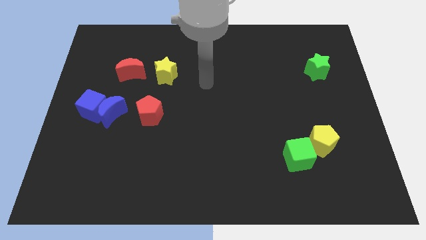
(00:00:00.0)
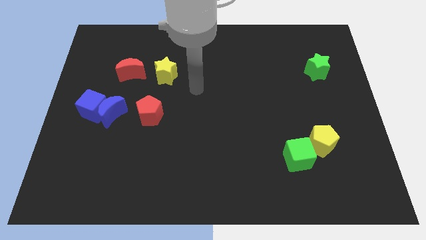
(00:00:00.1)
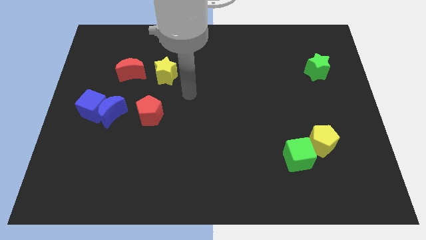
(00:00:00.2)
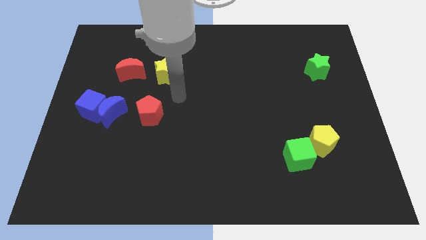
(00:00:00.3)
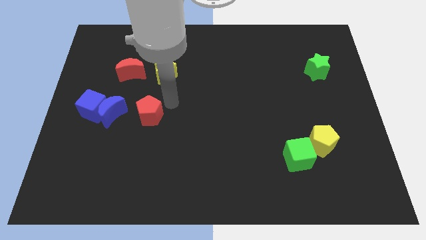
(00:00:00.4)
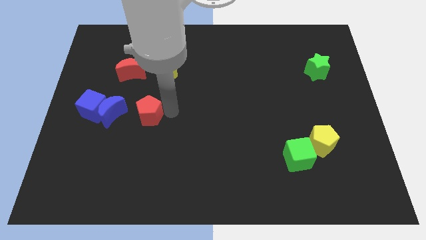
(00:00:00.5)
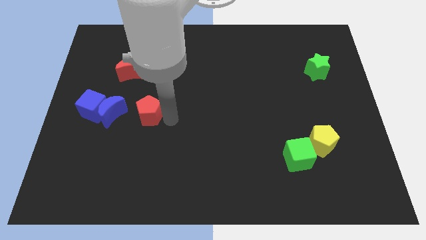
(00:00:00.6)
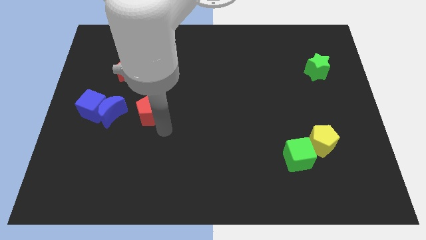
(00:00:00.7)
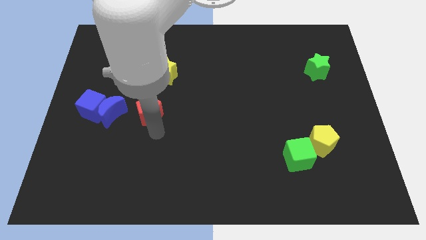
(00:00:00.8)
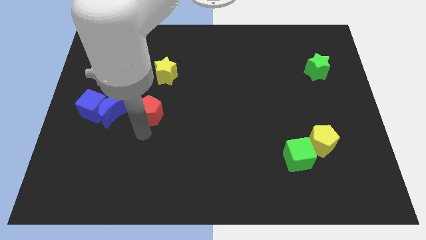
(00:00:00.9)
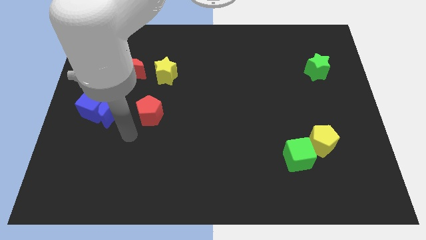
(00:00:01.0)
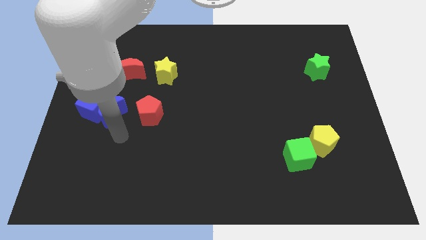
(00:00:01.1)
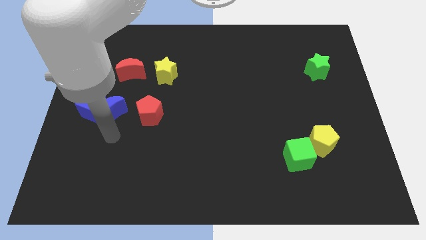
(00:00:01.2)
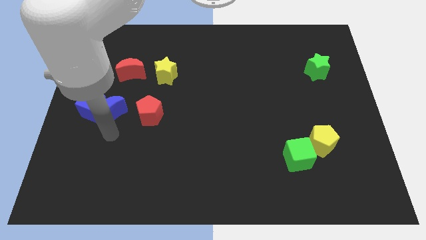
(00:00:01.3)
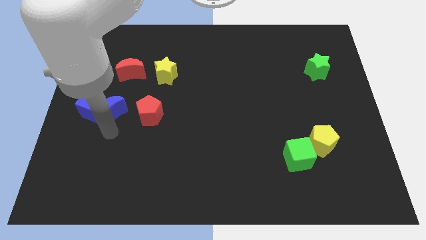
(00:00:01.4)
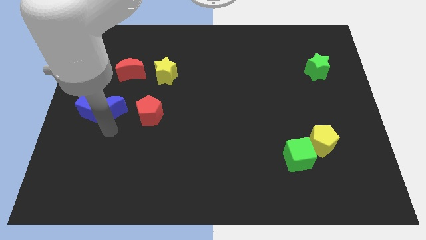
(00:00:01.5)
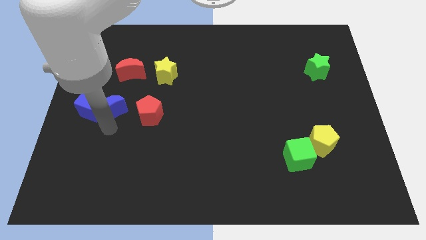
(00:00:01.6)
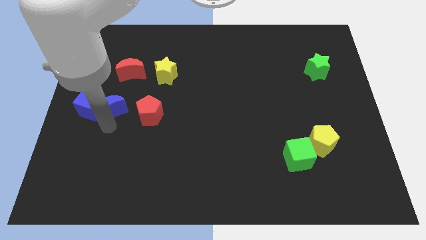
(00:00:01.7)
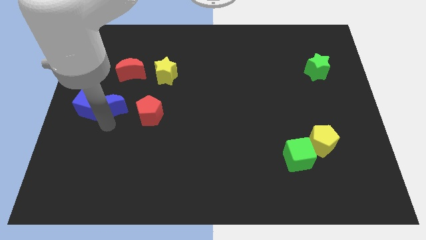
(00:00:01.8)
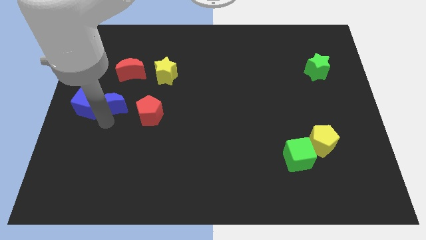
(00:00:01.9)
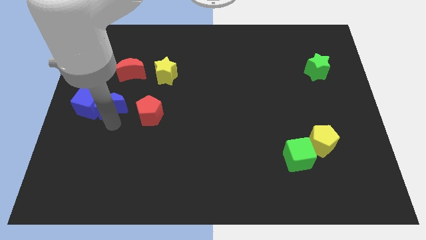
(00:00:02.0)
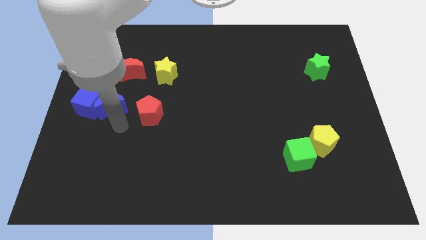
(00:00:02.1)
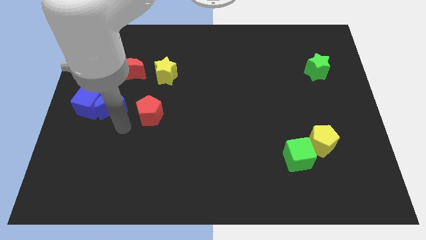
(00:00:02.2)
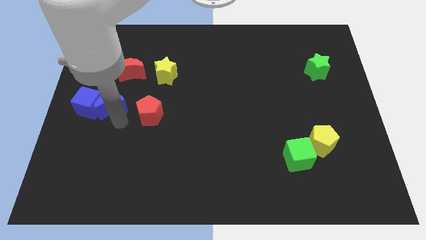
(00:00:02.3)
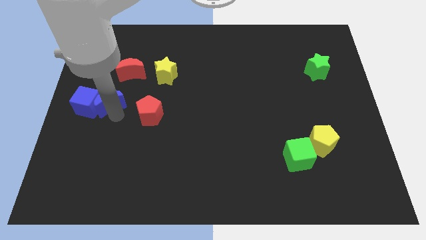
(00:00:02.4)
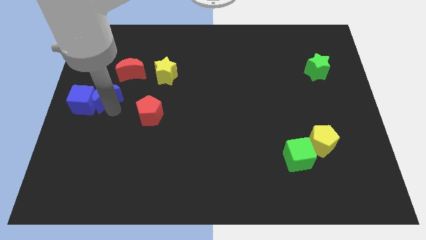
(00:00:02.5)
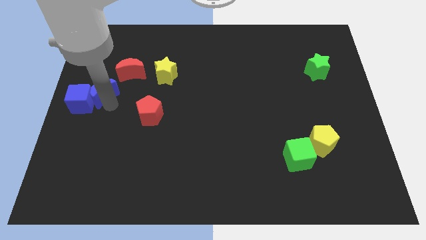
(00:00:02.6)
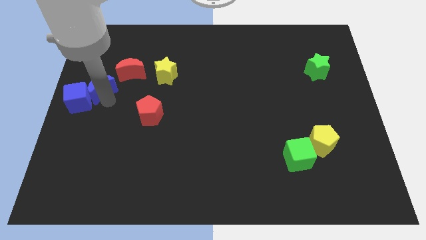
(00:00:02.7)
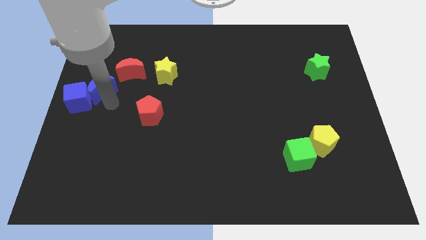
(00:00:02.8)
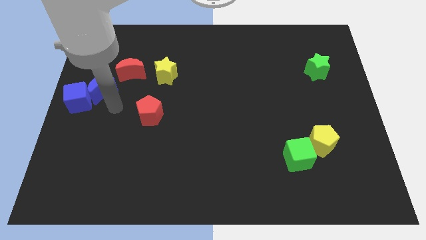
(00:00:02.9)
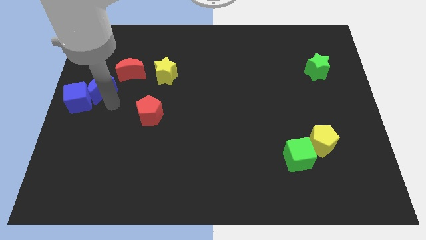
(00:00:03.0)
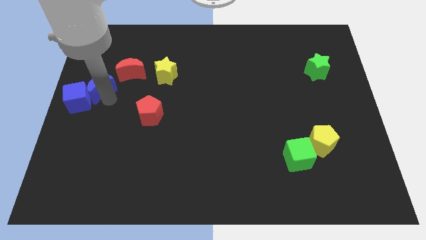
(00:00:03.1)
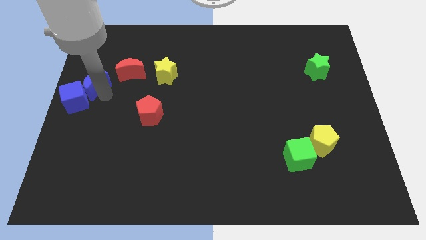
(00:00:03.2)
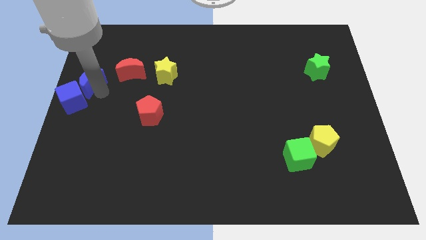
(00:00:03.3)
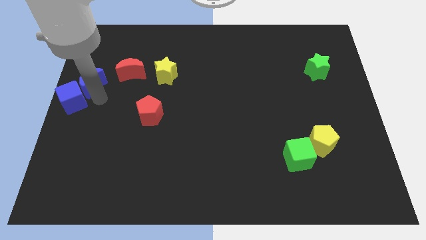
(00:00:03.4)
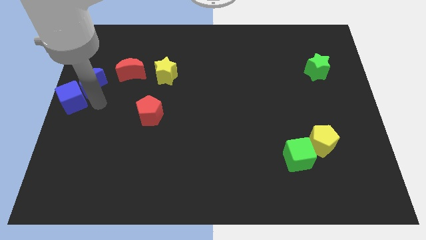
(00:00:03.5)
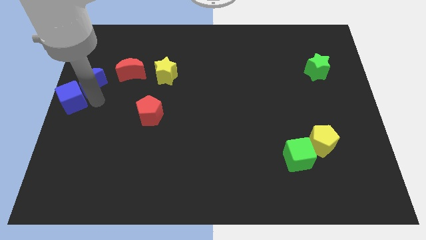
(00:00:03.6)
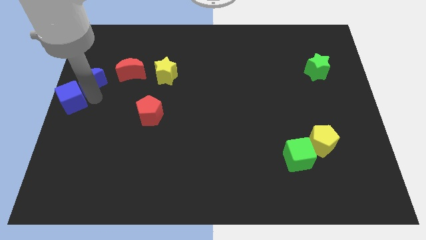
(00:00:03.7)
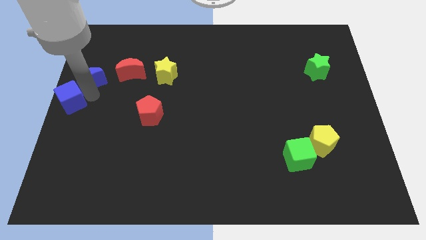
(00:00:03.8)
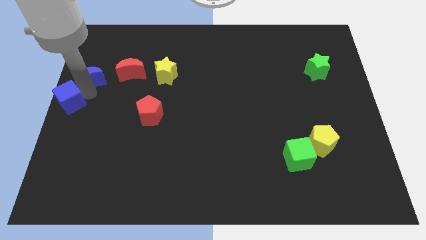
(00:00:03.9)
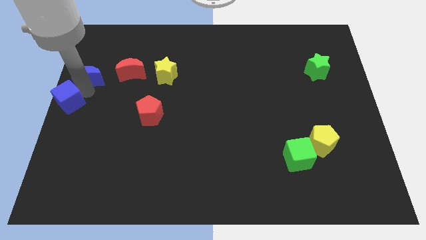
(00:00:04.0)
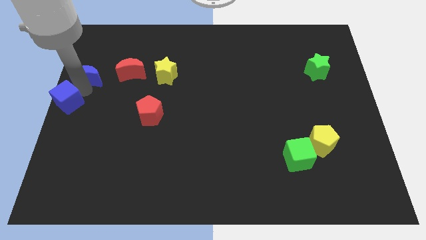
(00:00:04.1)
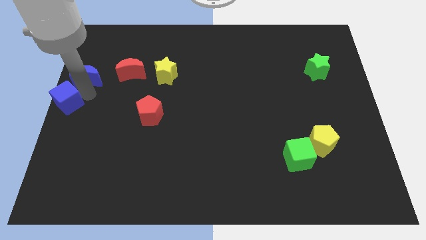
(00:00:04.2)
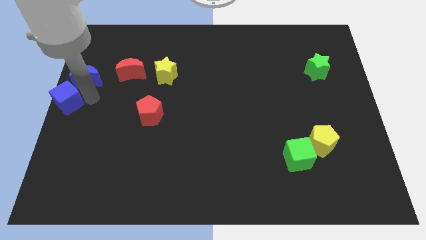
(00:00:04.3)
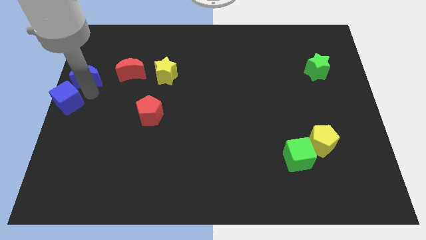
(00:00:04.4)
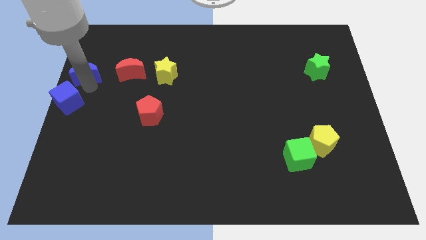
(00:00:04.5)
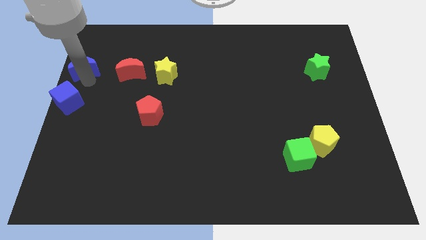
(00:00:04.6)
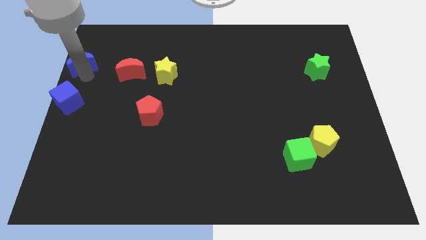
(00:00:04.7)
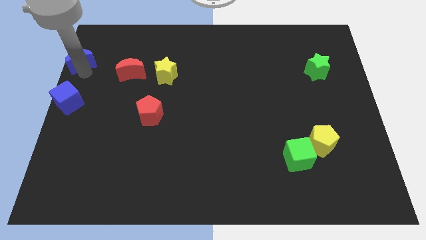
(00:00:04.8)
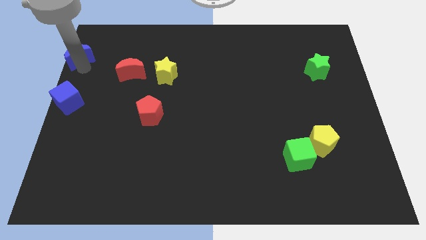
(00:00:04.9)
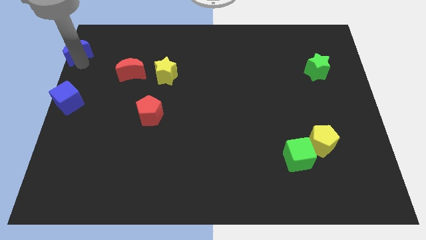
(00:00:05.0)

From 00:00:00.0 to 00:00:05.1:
slide the blue moon to the top left of the board
